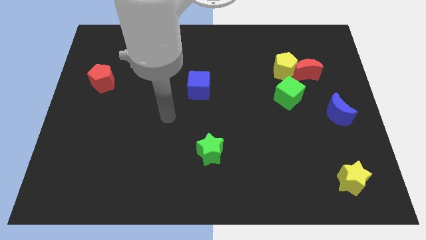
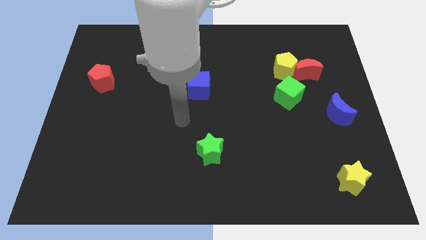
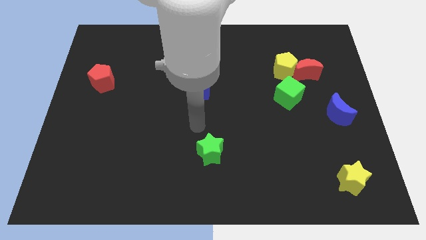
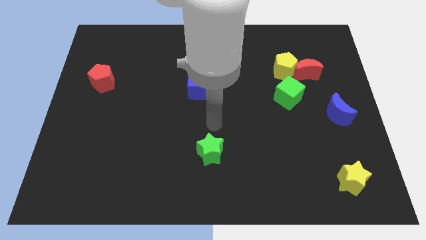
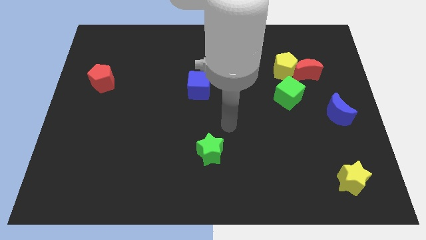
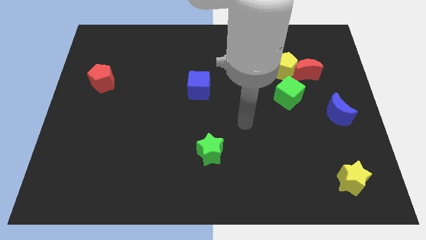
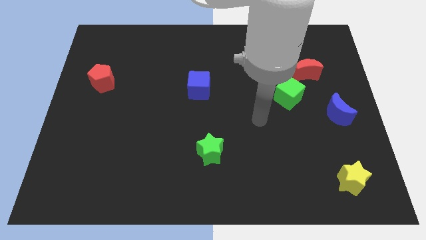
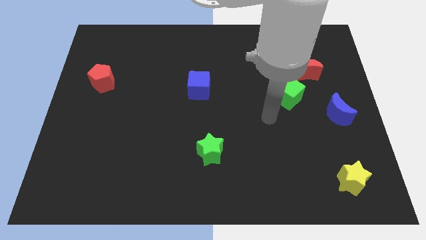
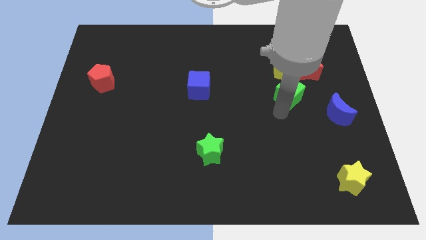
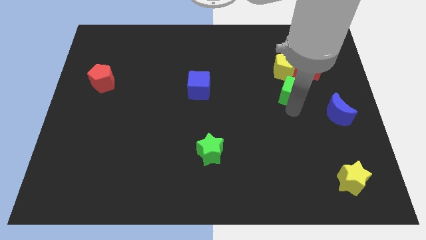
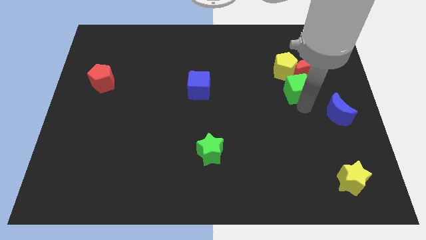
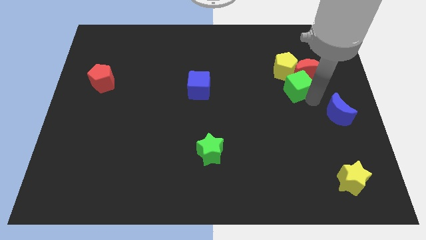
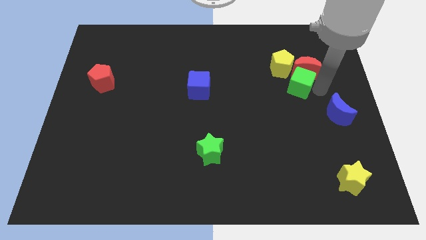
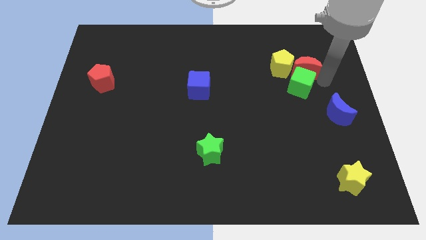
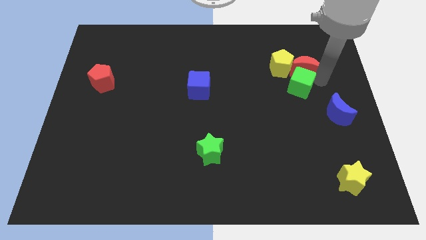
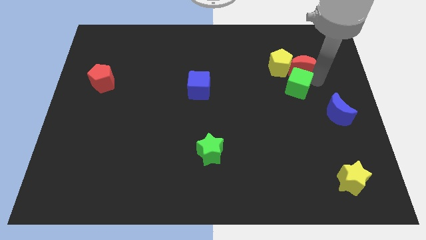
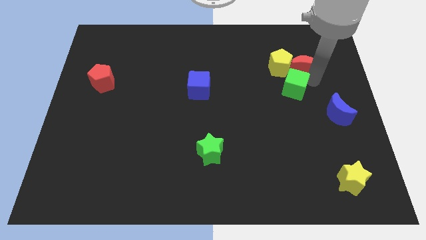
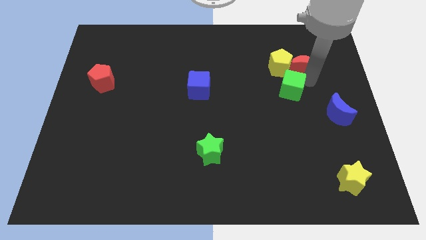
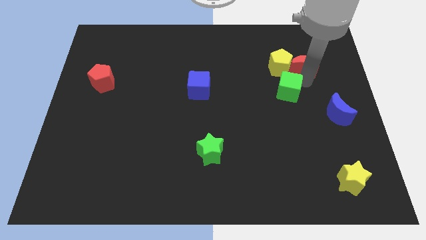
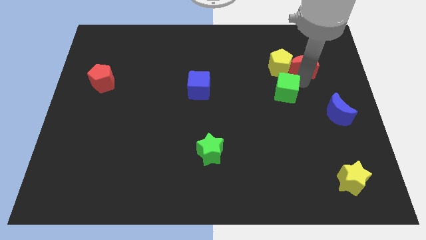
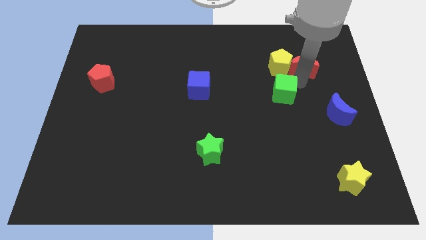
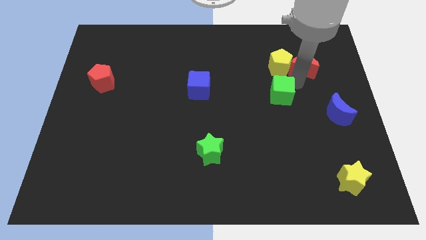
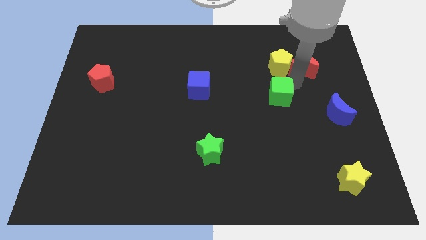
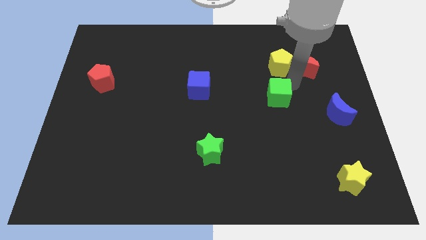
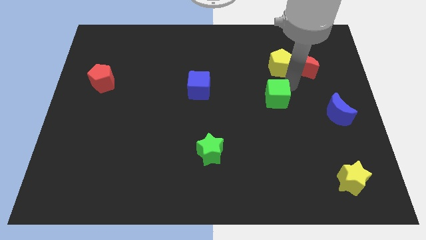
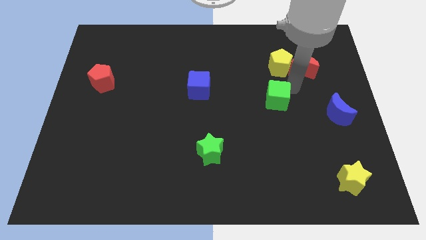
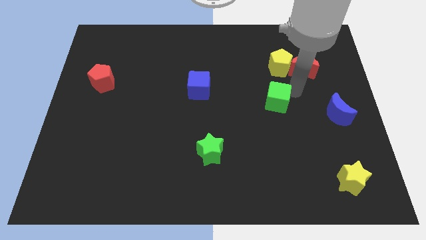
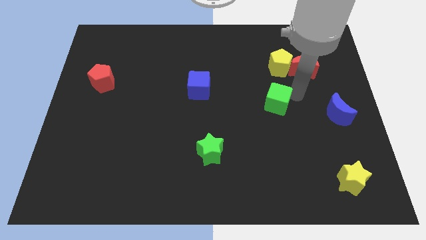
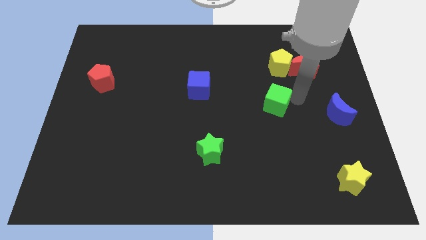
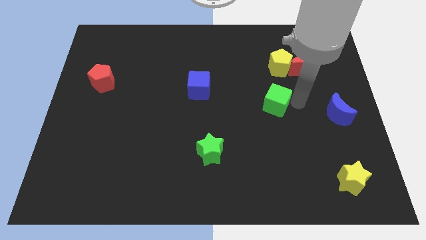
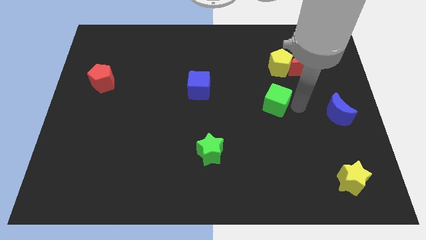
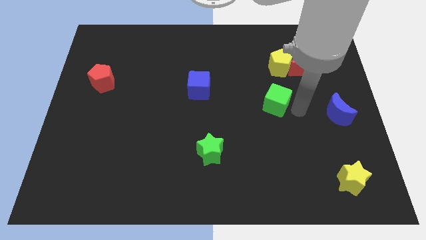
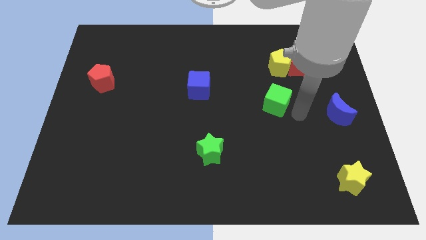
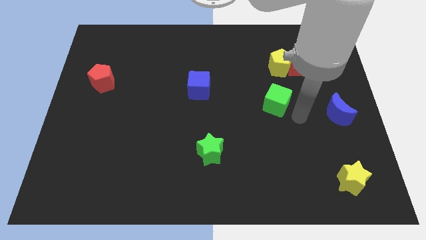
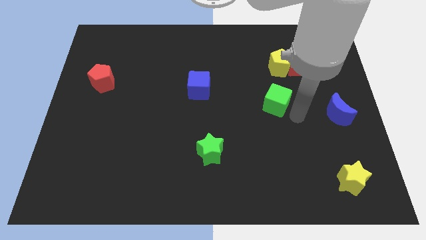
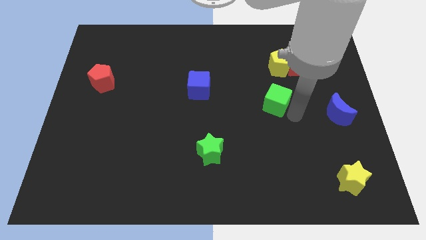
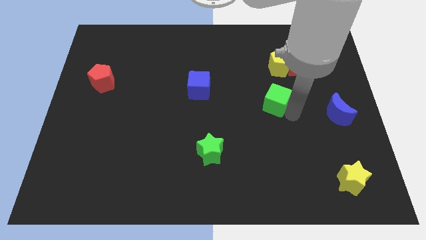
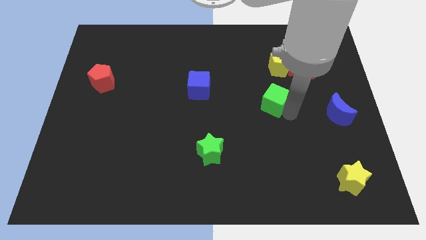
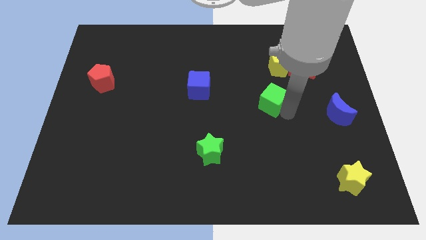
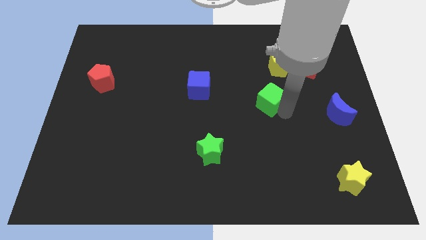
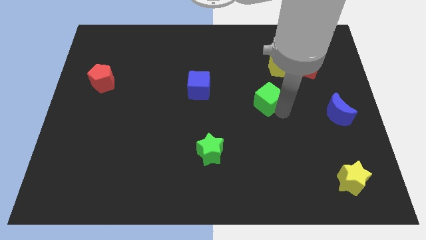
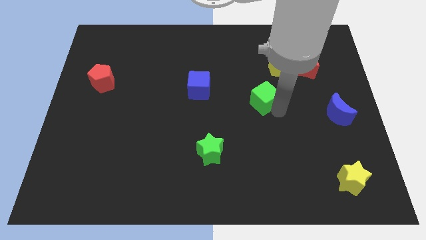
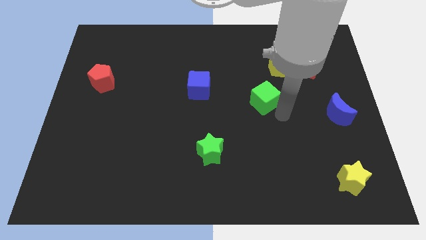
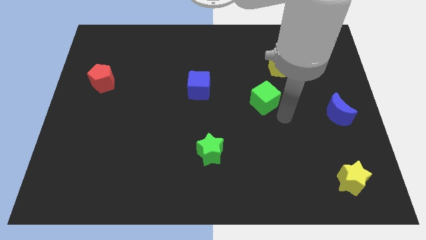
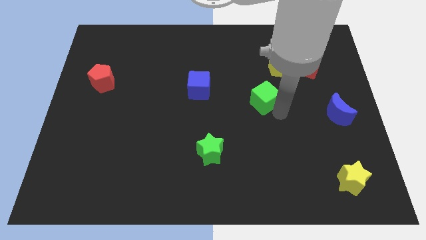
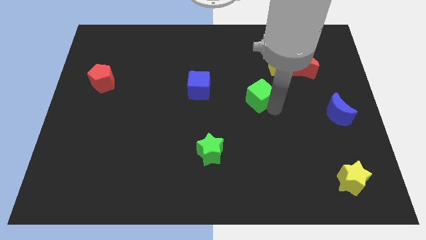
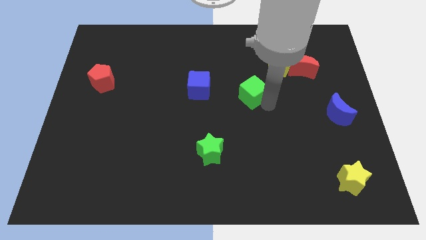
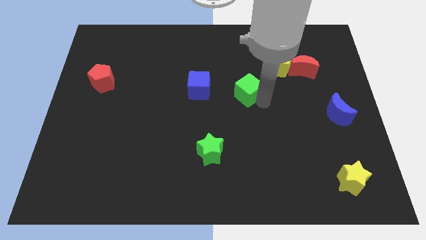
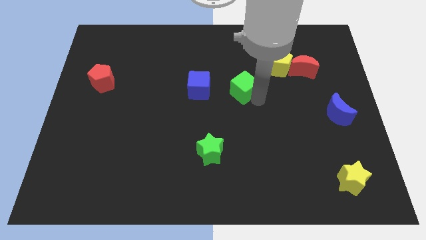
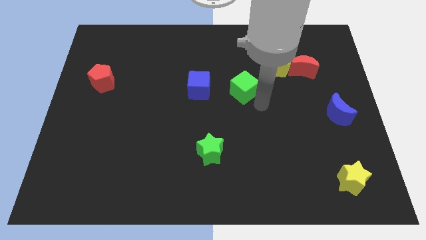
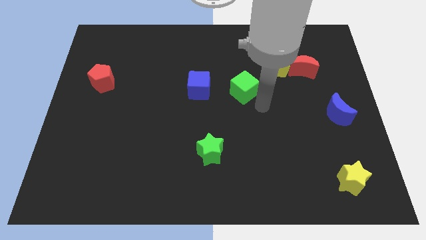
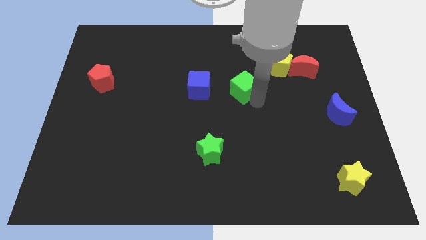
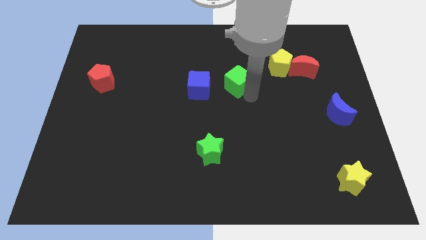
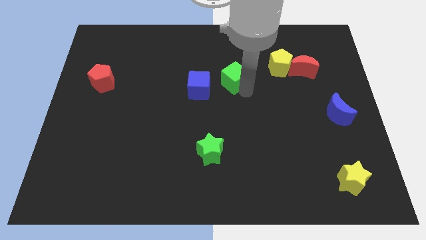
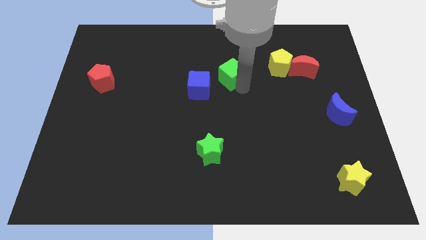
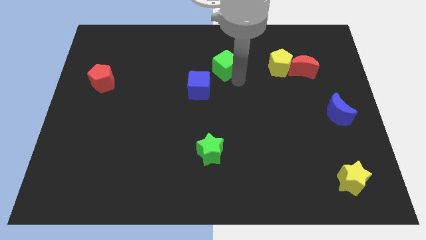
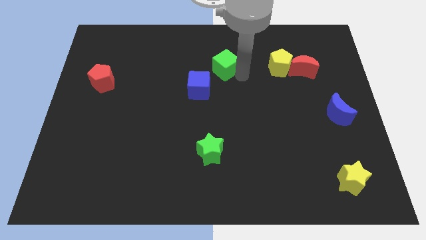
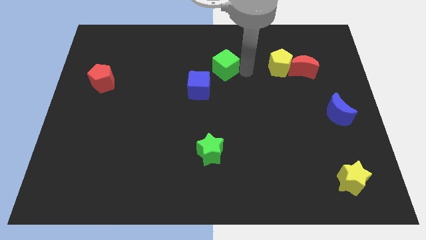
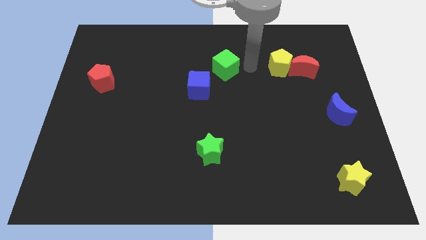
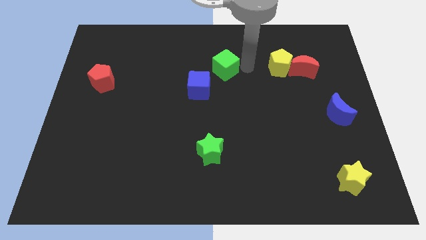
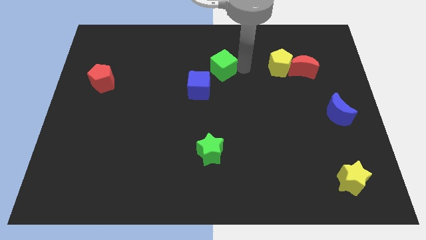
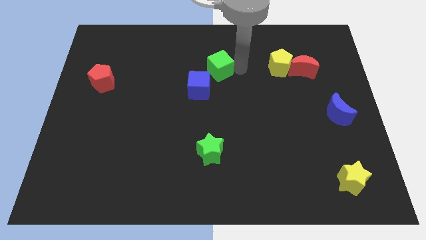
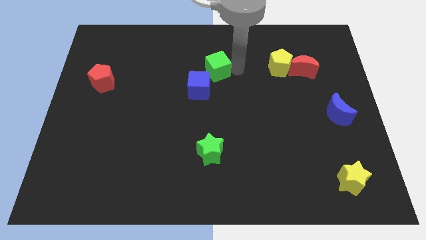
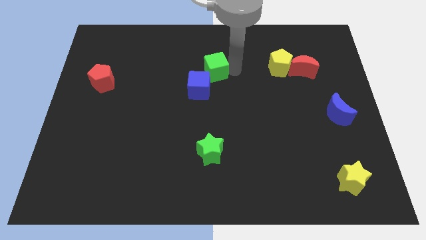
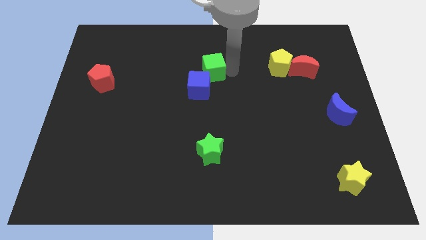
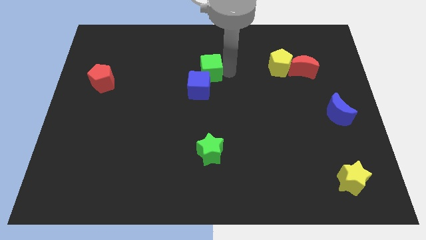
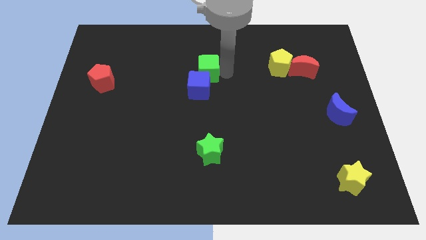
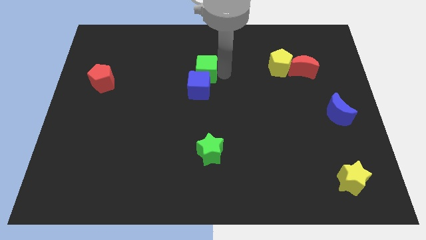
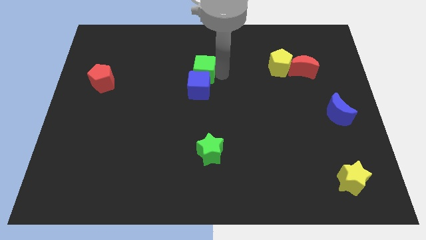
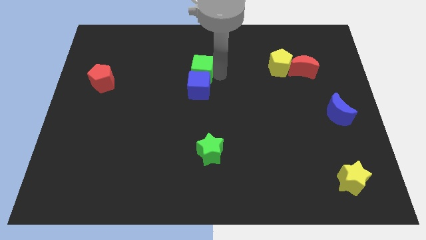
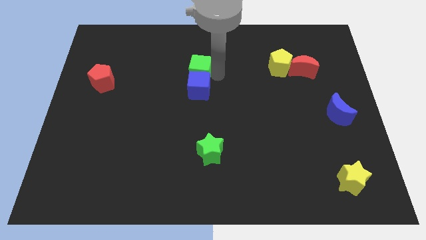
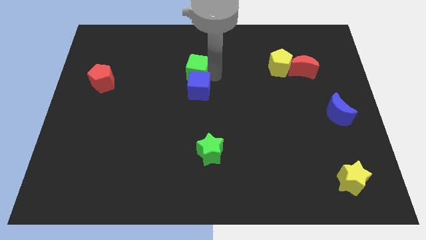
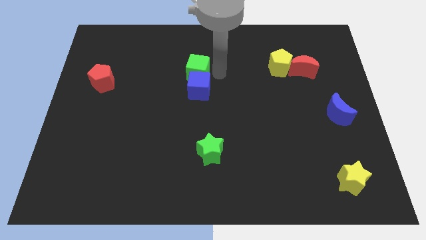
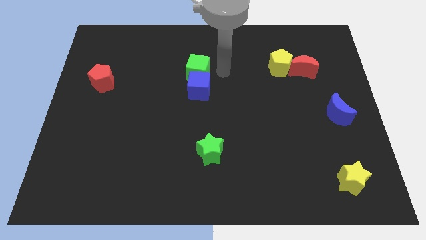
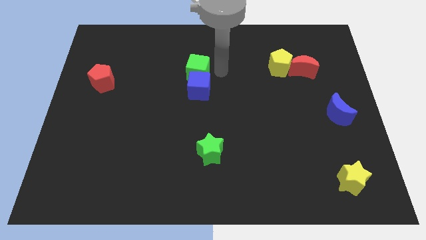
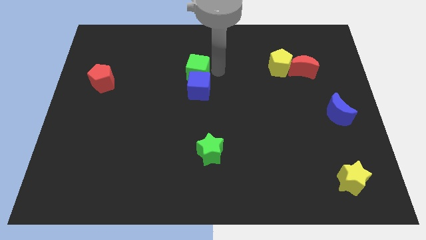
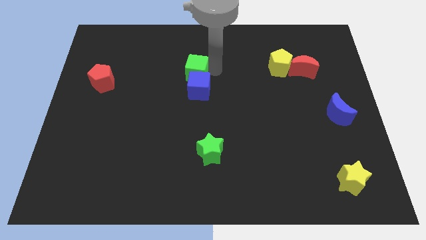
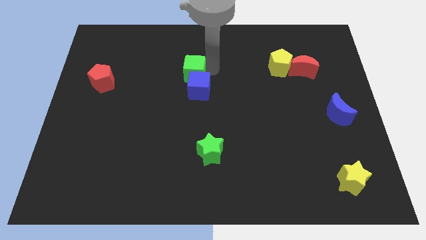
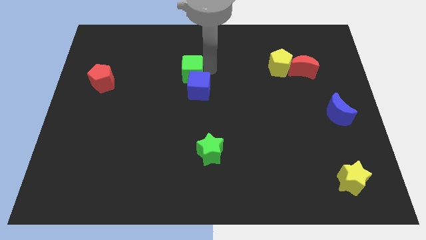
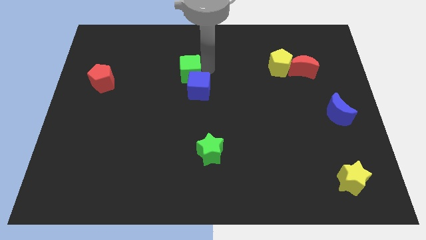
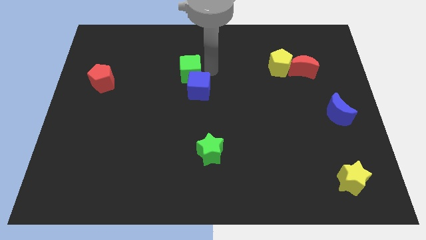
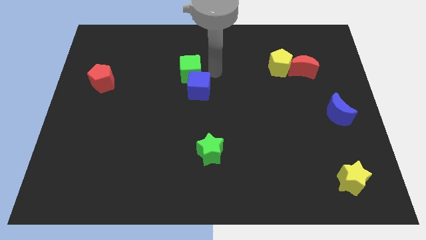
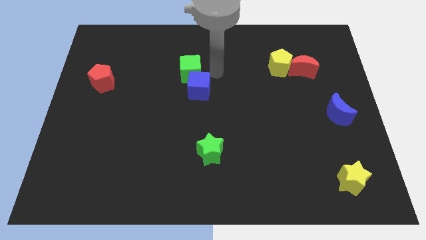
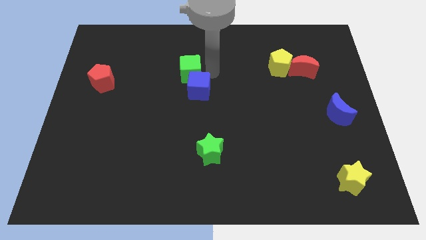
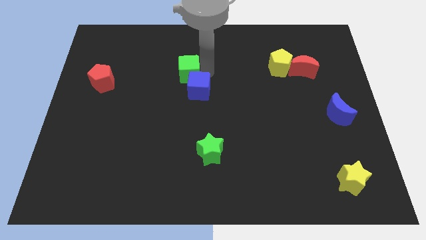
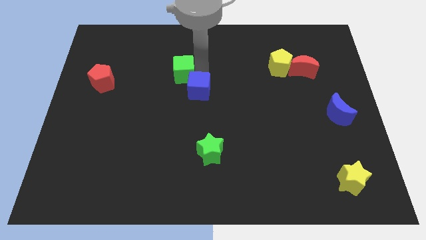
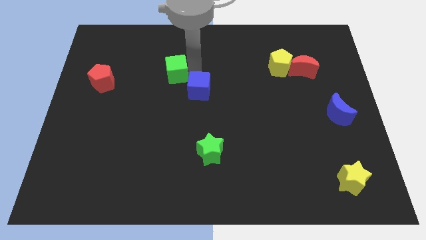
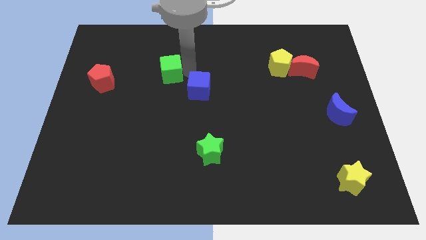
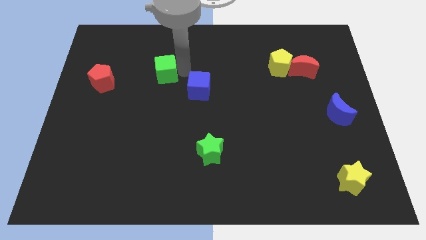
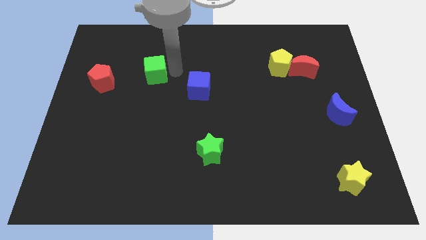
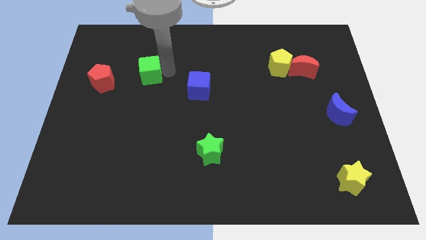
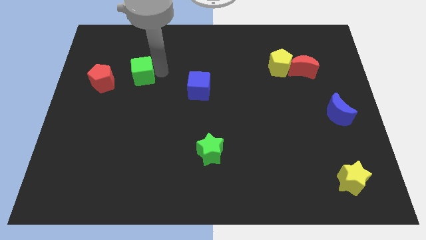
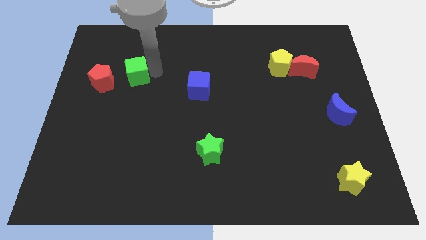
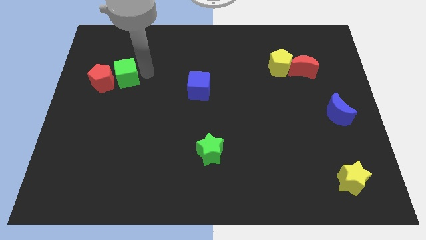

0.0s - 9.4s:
push the green cube close to the red pentagon
